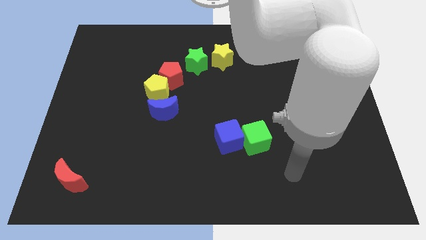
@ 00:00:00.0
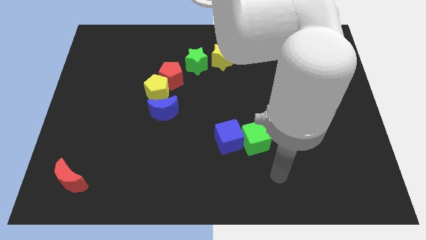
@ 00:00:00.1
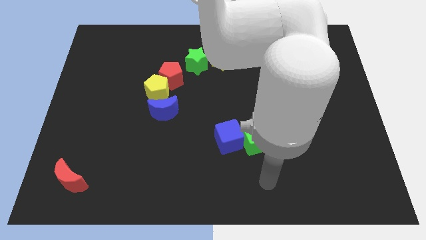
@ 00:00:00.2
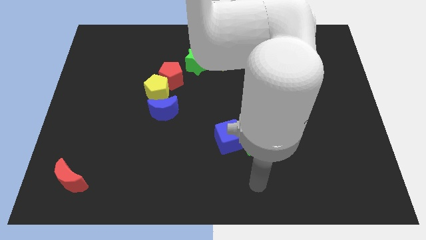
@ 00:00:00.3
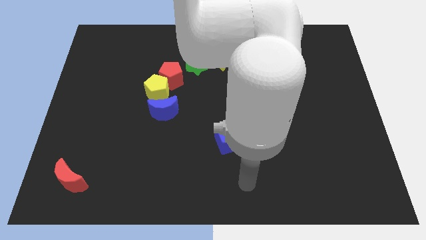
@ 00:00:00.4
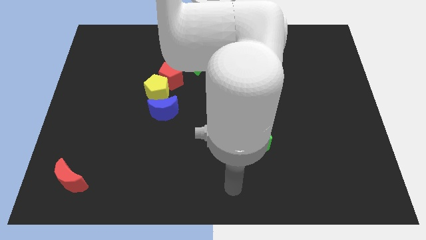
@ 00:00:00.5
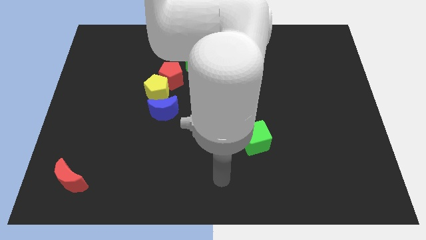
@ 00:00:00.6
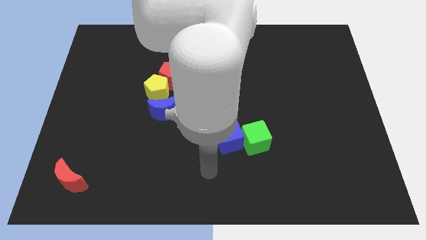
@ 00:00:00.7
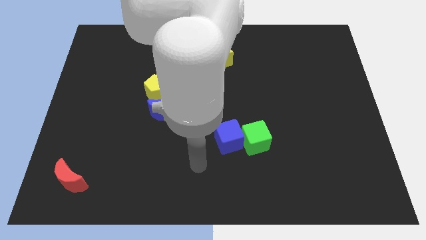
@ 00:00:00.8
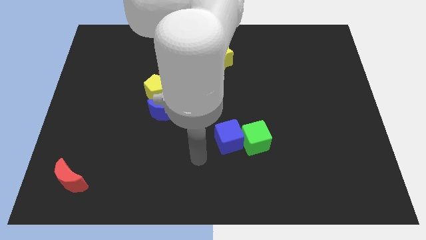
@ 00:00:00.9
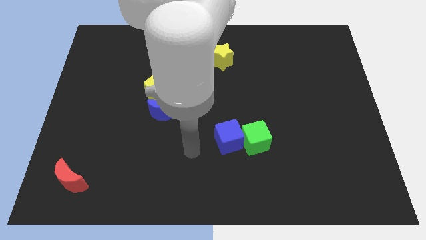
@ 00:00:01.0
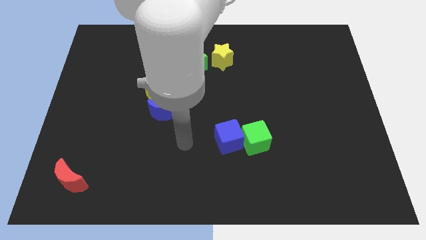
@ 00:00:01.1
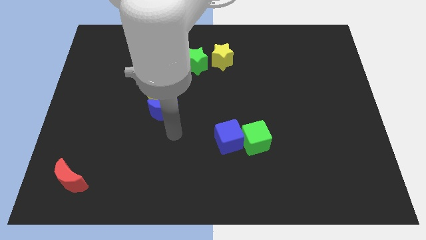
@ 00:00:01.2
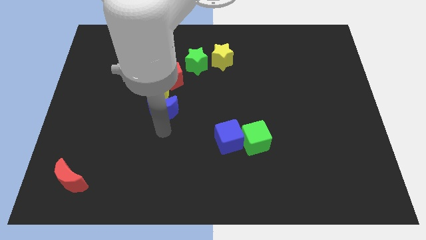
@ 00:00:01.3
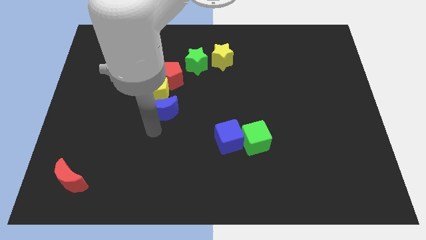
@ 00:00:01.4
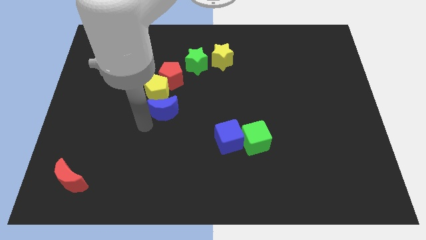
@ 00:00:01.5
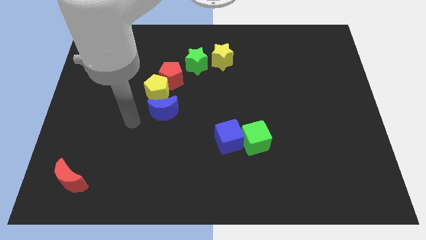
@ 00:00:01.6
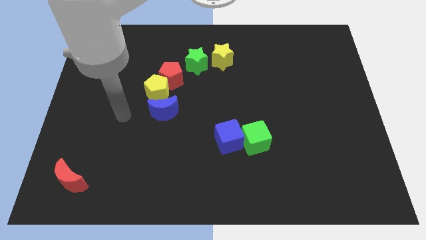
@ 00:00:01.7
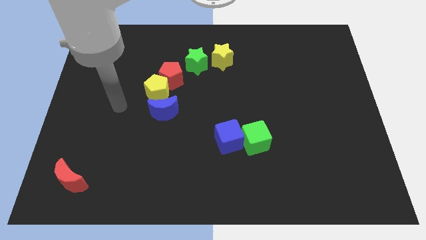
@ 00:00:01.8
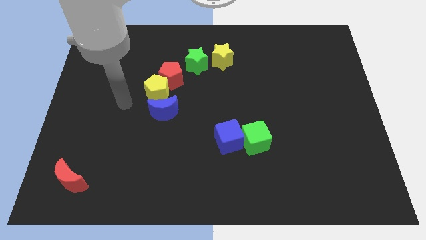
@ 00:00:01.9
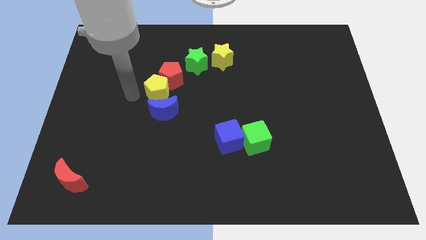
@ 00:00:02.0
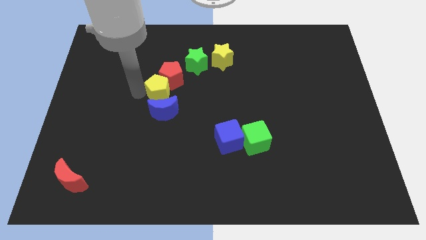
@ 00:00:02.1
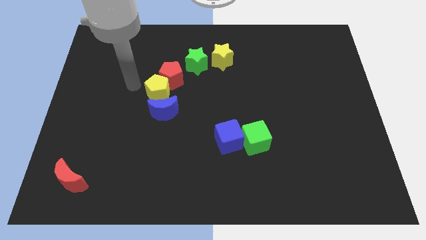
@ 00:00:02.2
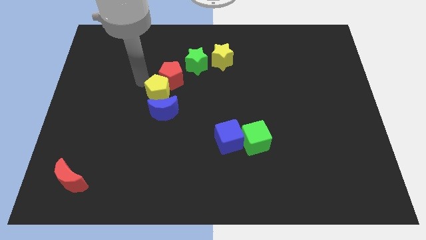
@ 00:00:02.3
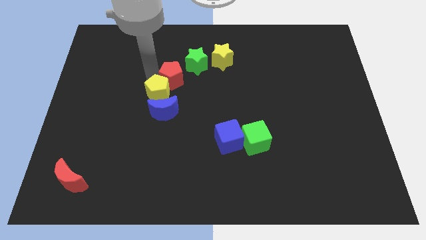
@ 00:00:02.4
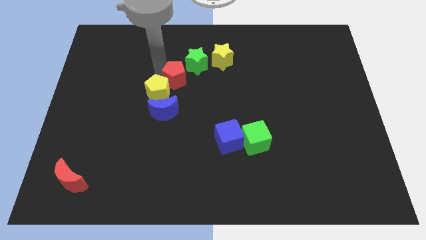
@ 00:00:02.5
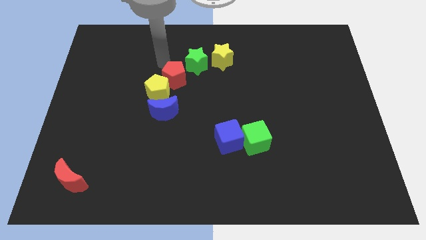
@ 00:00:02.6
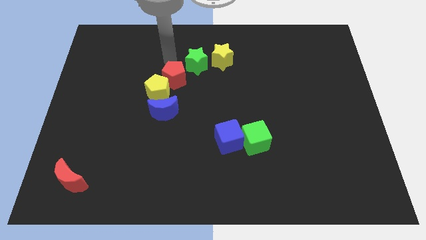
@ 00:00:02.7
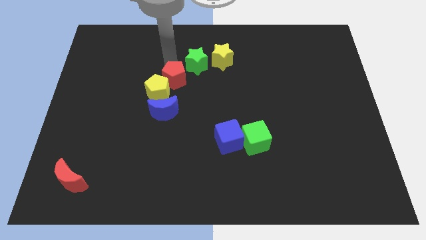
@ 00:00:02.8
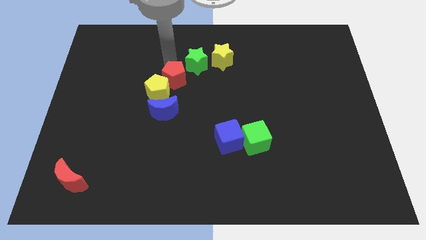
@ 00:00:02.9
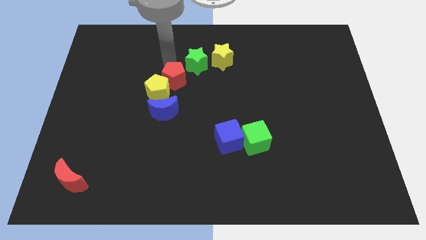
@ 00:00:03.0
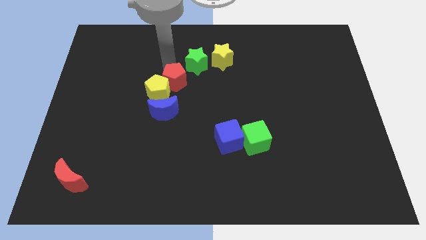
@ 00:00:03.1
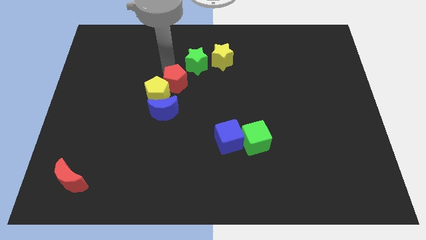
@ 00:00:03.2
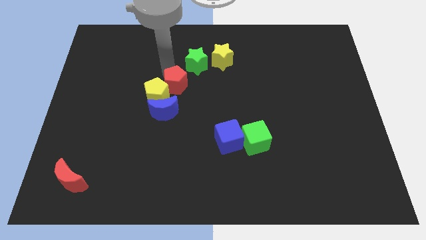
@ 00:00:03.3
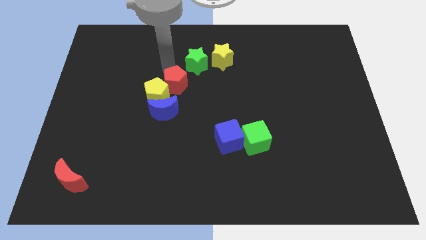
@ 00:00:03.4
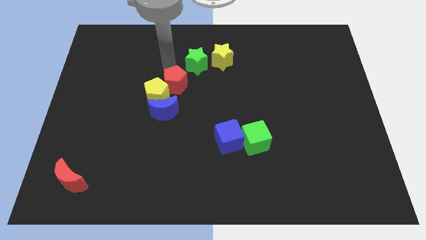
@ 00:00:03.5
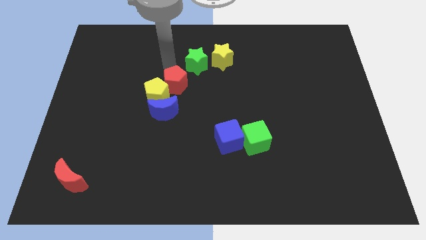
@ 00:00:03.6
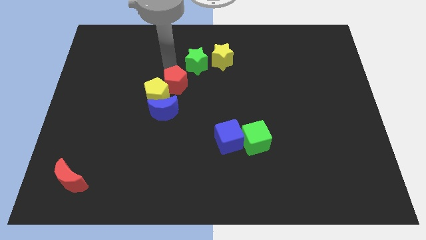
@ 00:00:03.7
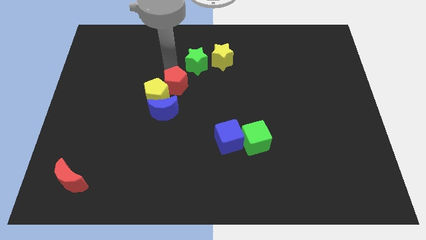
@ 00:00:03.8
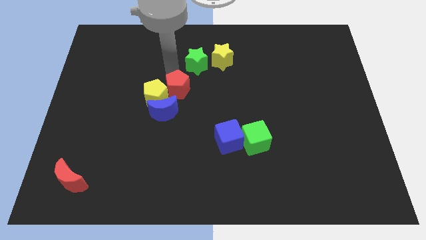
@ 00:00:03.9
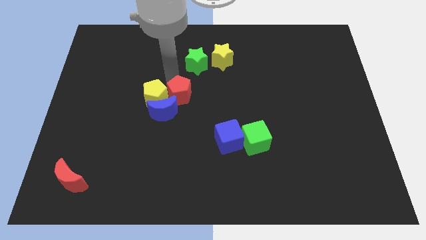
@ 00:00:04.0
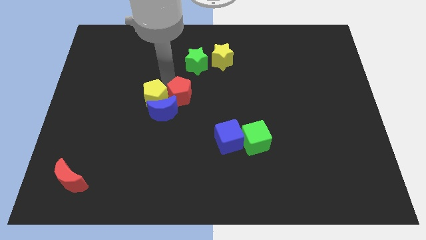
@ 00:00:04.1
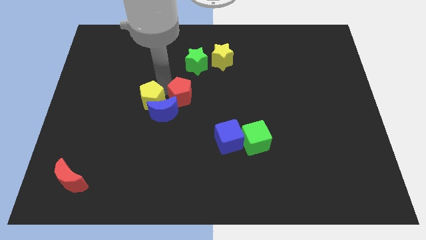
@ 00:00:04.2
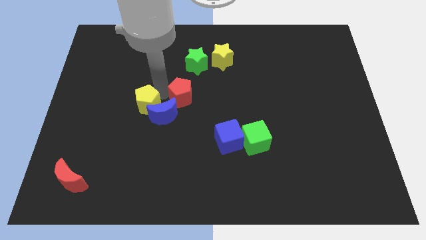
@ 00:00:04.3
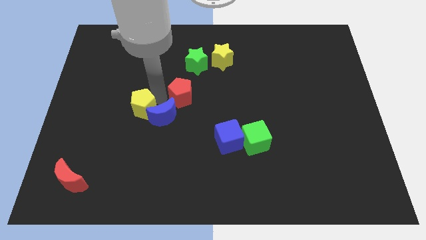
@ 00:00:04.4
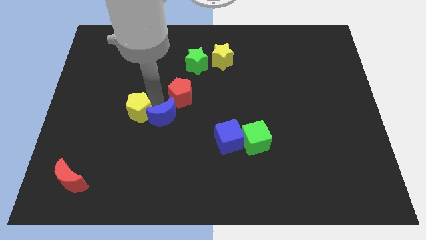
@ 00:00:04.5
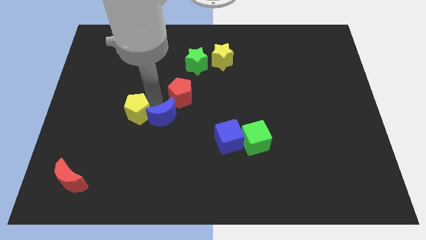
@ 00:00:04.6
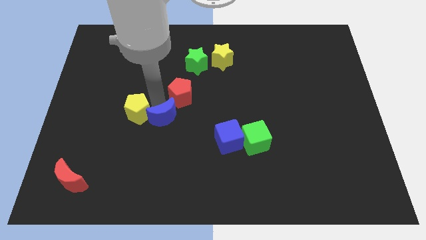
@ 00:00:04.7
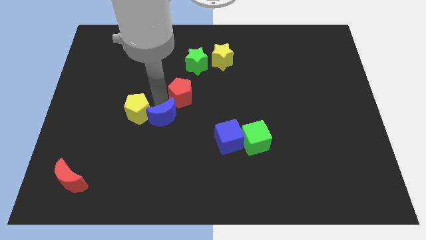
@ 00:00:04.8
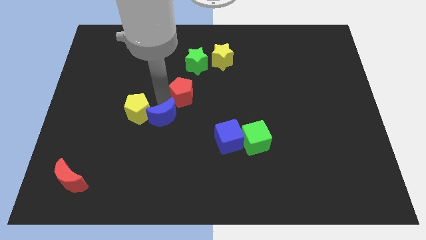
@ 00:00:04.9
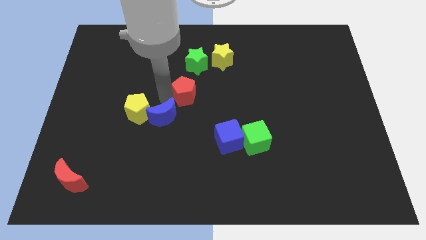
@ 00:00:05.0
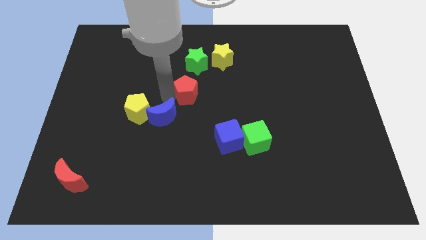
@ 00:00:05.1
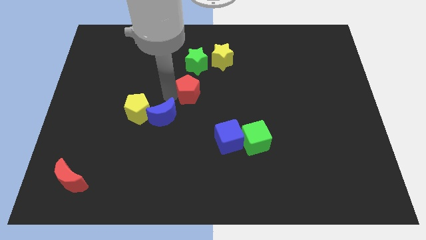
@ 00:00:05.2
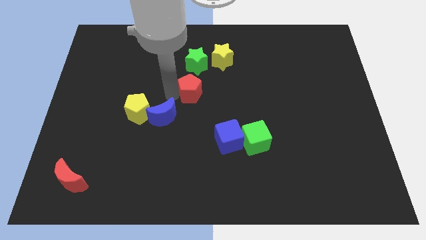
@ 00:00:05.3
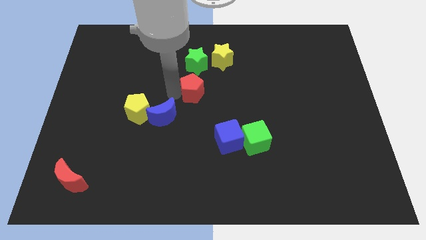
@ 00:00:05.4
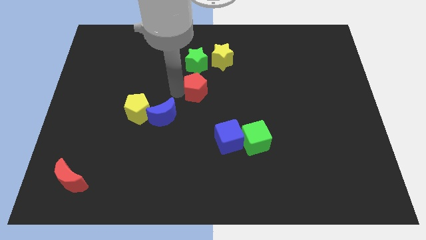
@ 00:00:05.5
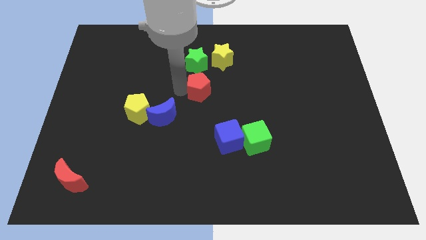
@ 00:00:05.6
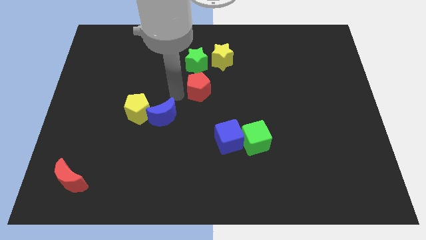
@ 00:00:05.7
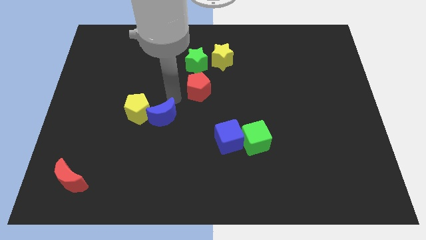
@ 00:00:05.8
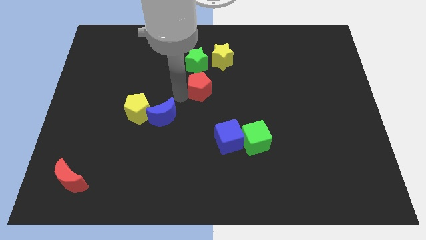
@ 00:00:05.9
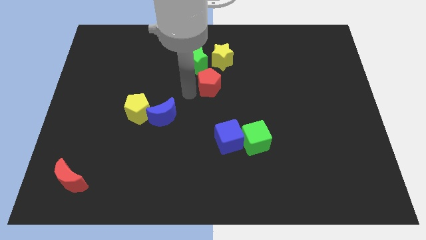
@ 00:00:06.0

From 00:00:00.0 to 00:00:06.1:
push the red pentagon a little bit right

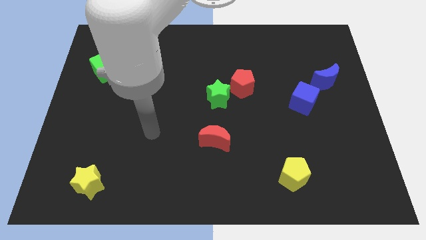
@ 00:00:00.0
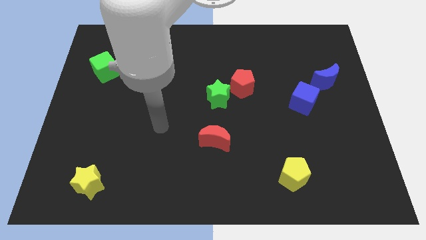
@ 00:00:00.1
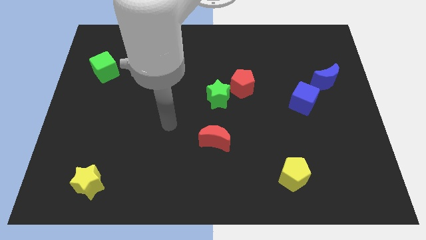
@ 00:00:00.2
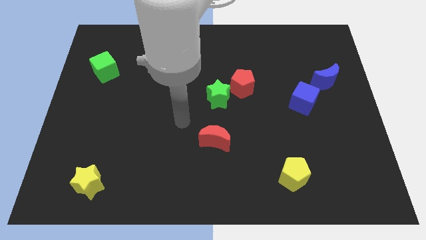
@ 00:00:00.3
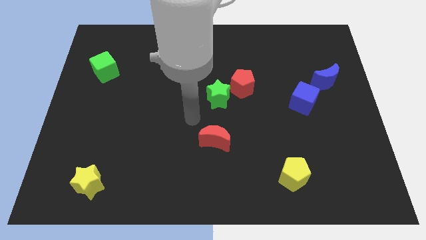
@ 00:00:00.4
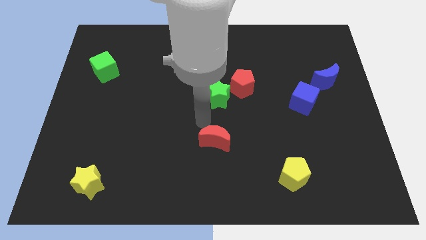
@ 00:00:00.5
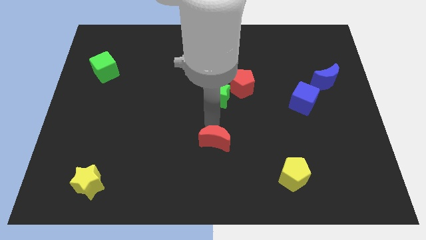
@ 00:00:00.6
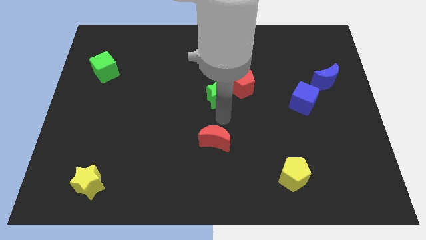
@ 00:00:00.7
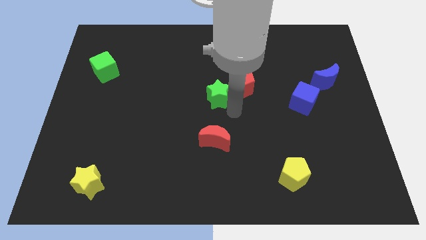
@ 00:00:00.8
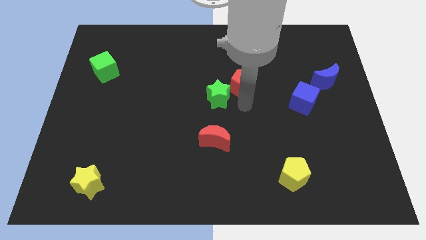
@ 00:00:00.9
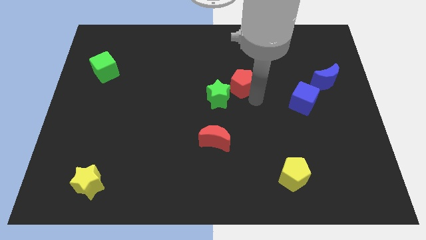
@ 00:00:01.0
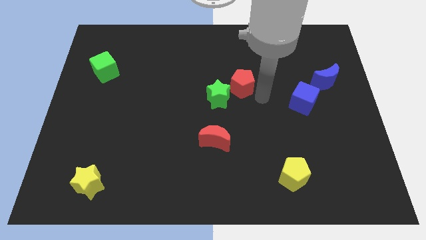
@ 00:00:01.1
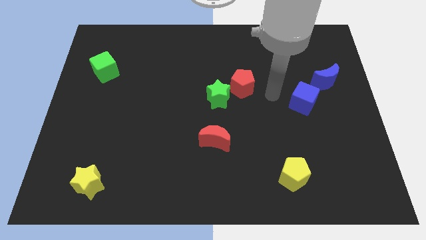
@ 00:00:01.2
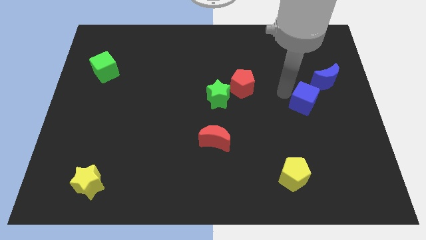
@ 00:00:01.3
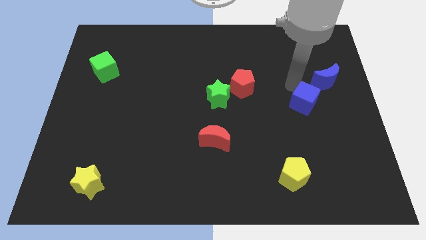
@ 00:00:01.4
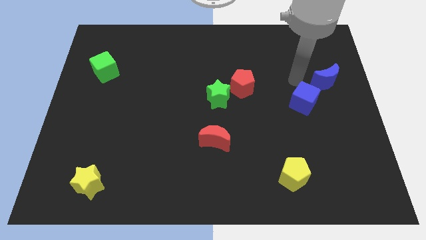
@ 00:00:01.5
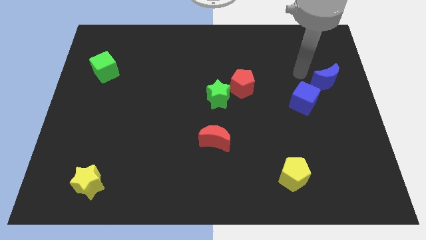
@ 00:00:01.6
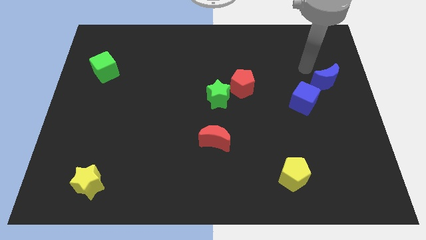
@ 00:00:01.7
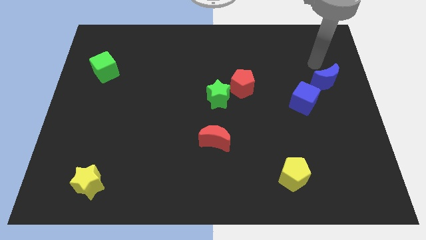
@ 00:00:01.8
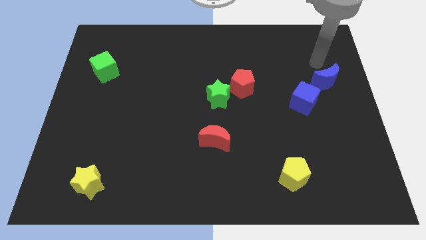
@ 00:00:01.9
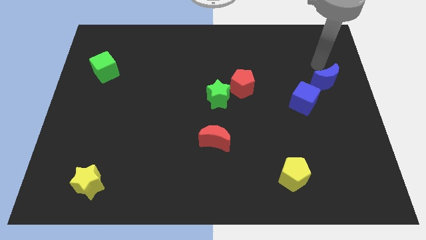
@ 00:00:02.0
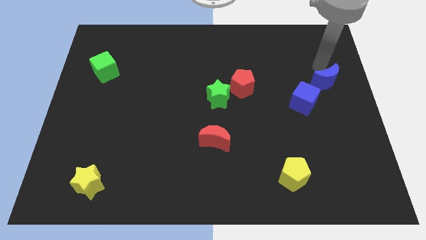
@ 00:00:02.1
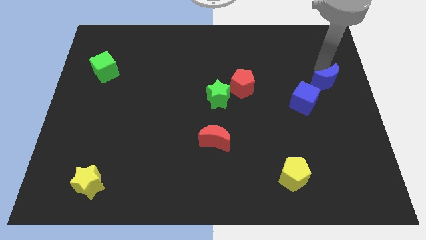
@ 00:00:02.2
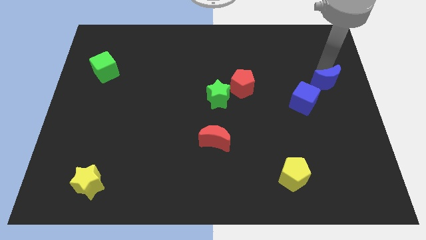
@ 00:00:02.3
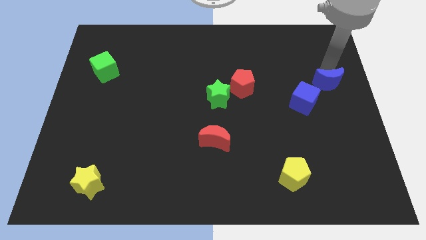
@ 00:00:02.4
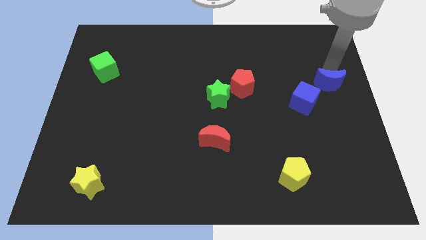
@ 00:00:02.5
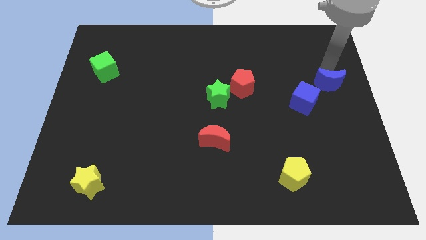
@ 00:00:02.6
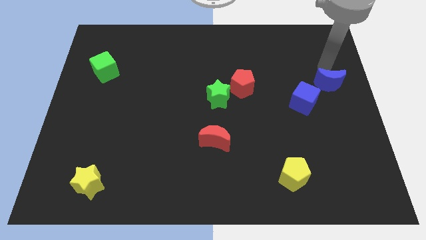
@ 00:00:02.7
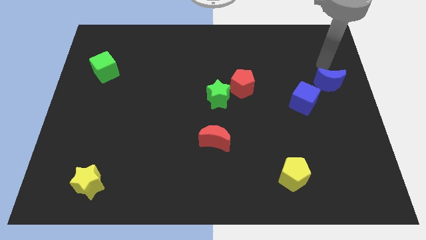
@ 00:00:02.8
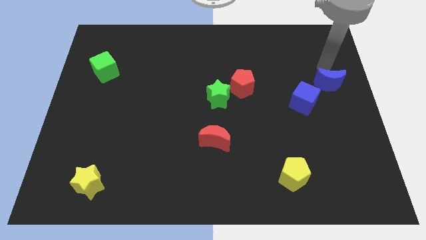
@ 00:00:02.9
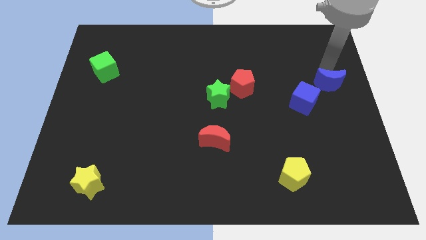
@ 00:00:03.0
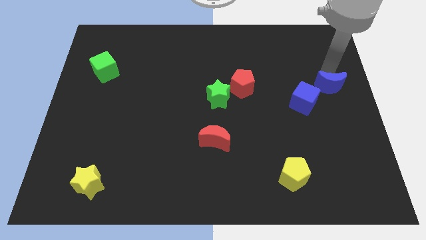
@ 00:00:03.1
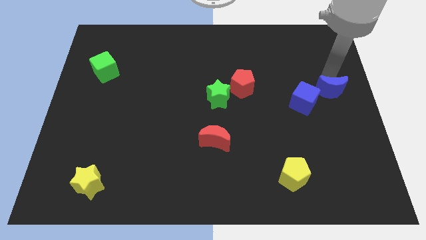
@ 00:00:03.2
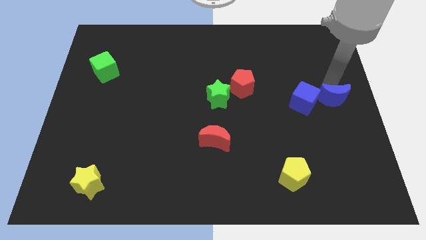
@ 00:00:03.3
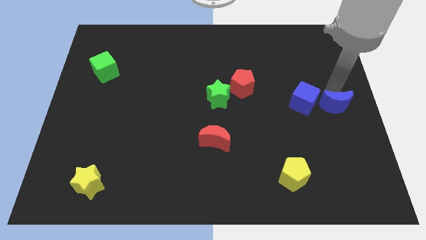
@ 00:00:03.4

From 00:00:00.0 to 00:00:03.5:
move the blue moon down slightly
